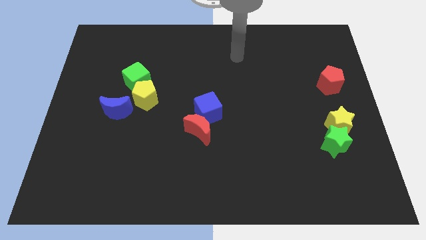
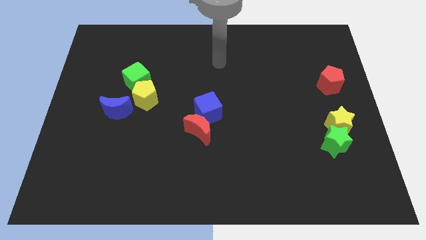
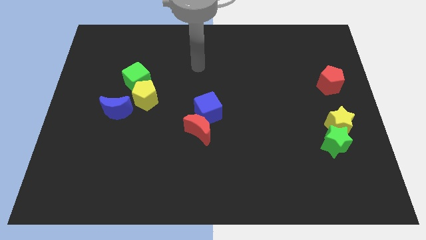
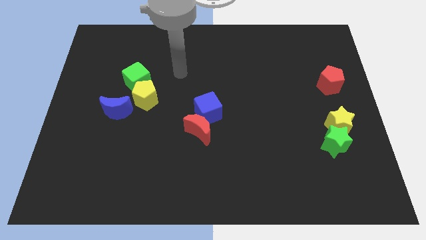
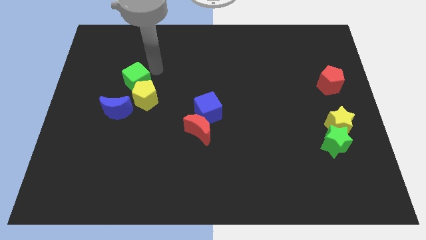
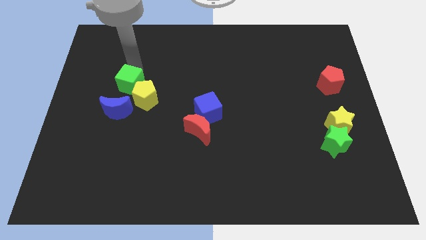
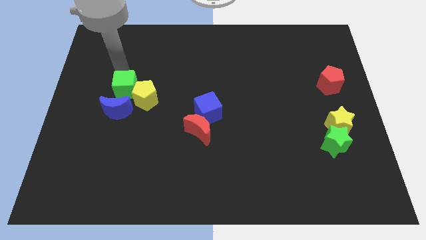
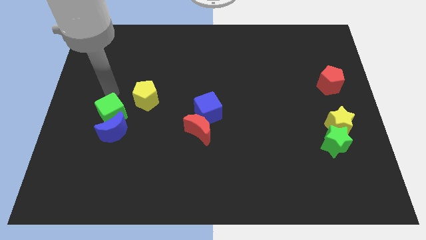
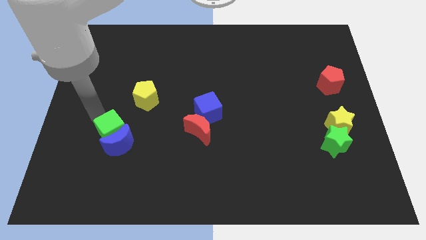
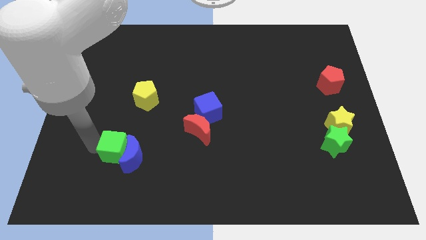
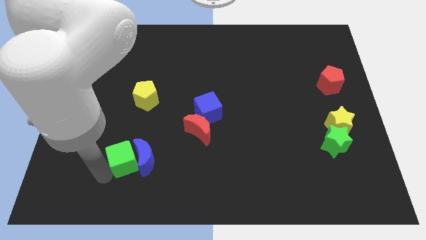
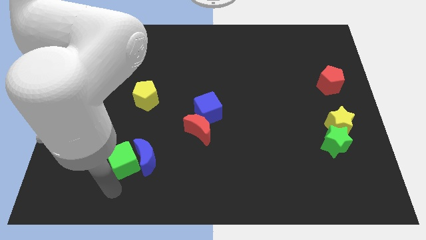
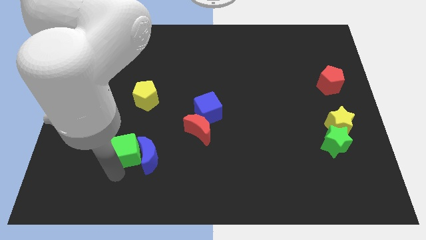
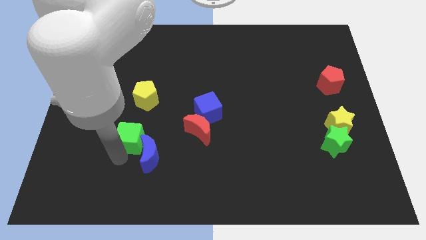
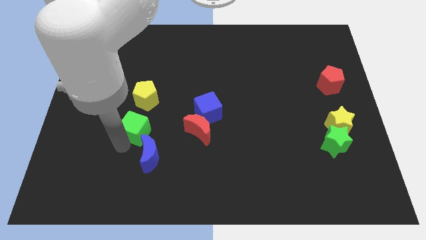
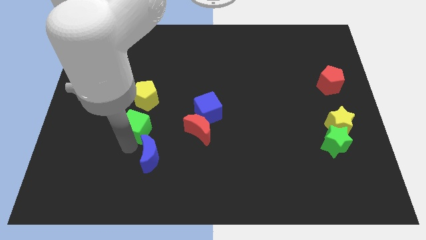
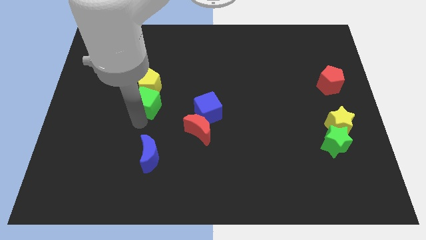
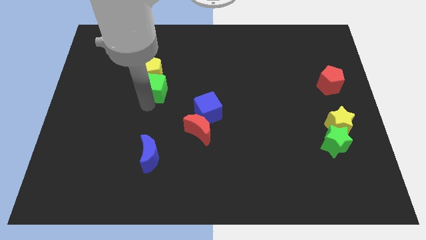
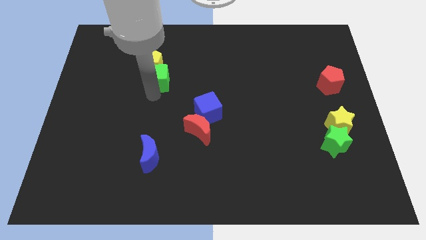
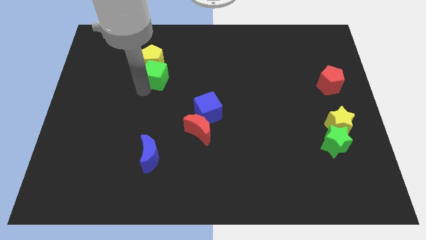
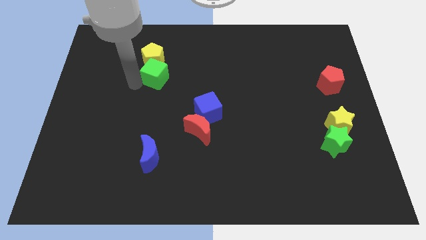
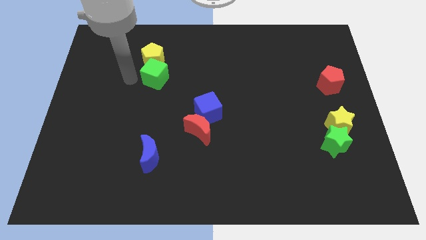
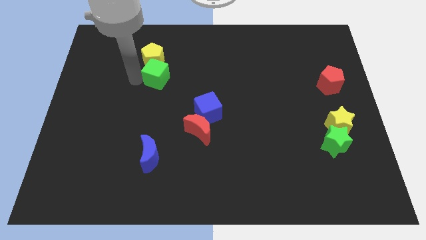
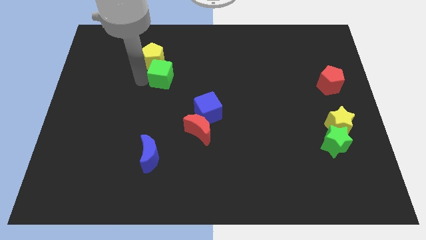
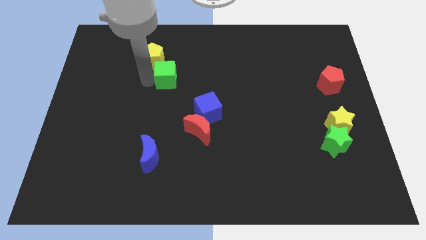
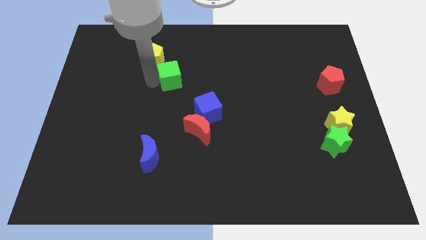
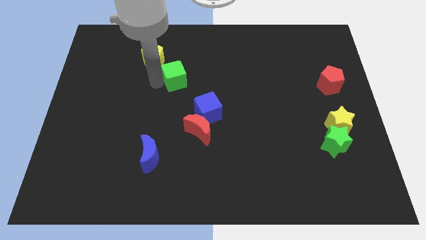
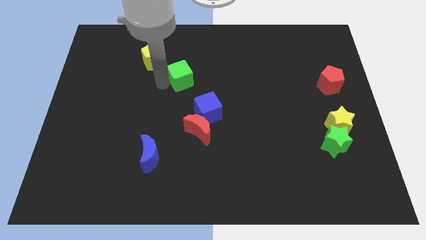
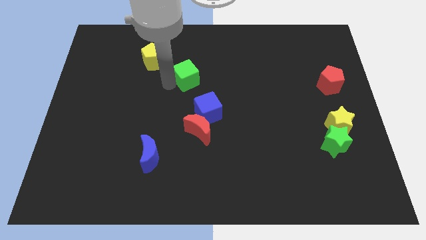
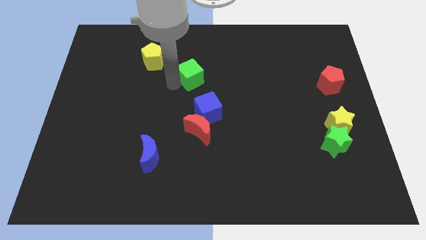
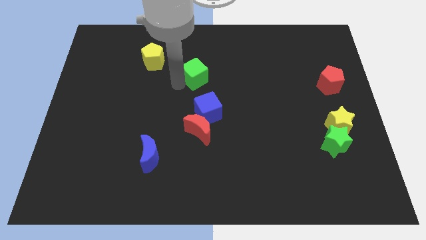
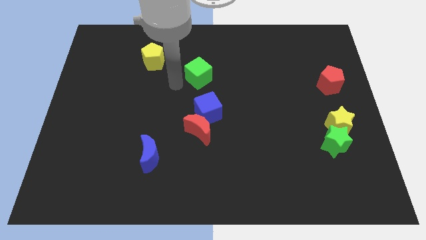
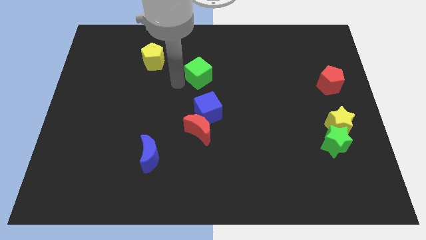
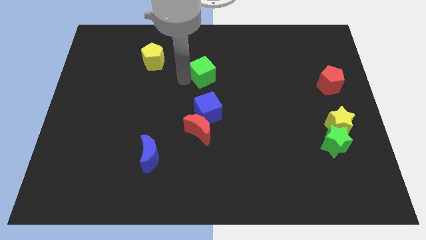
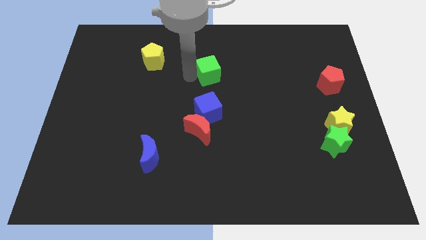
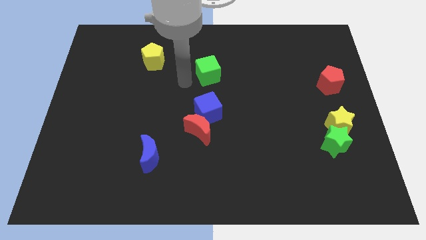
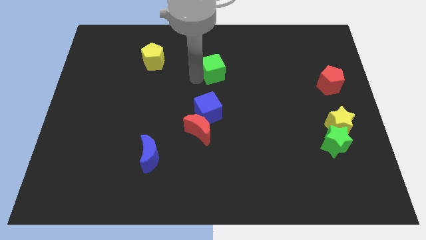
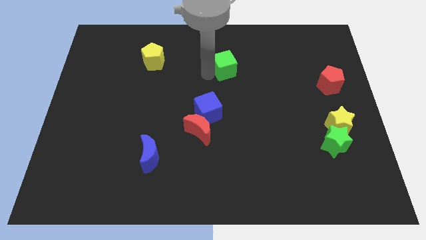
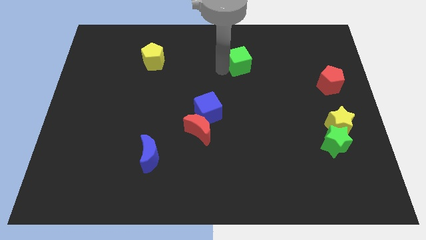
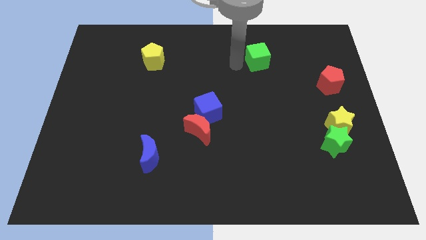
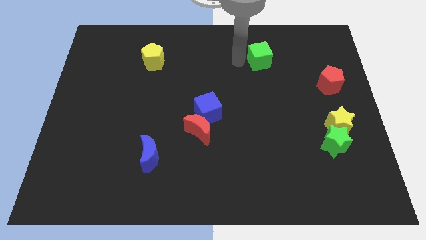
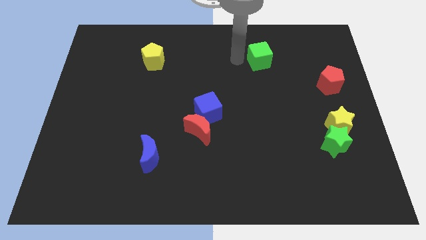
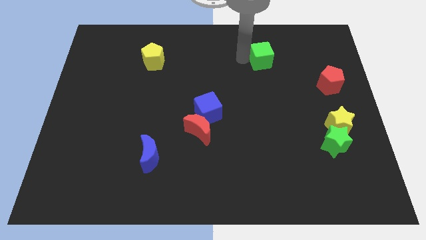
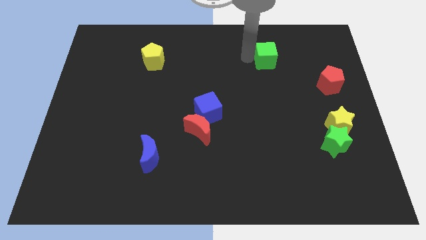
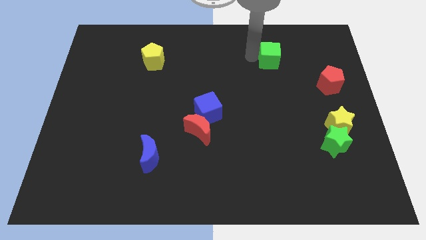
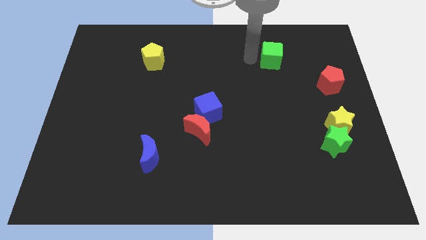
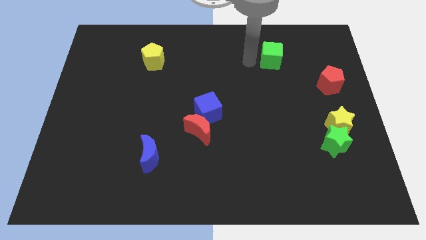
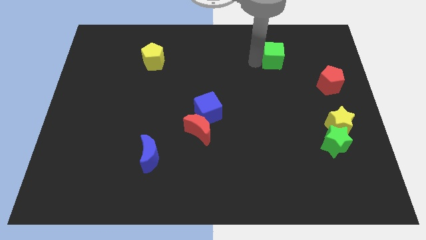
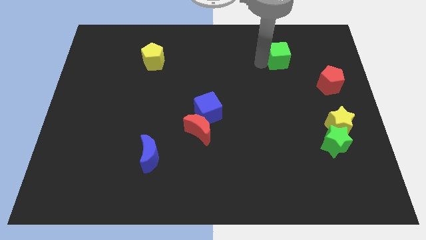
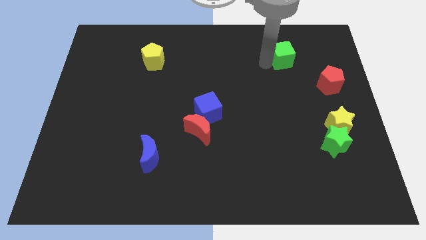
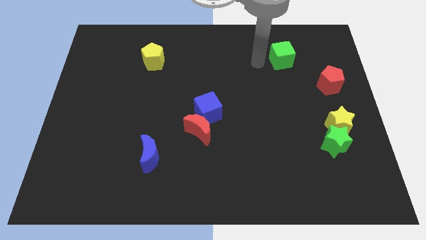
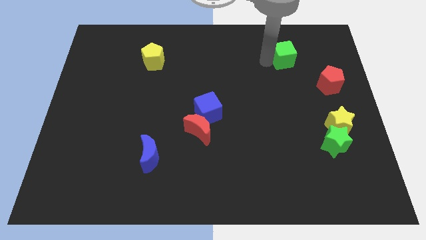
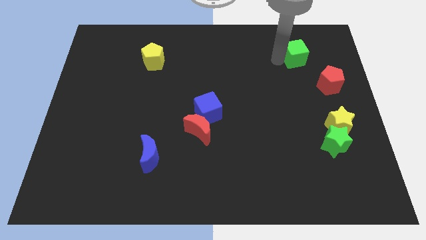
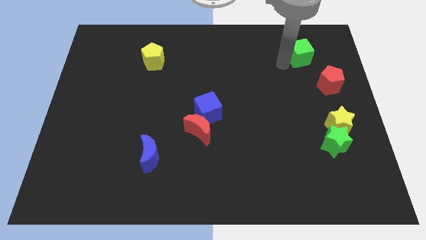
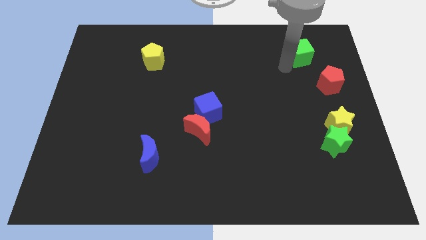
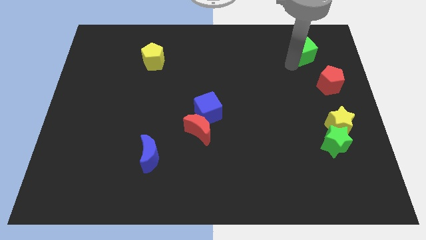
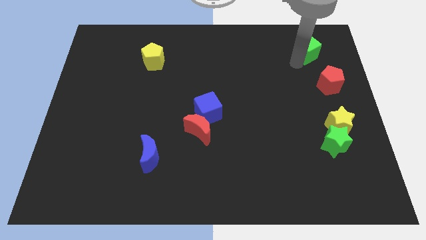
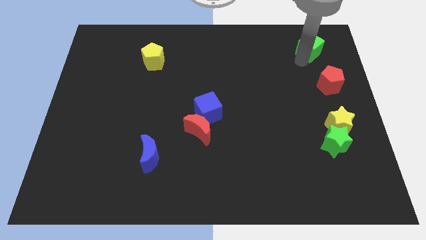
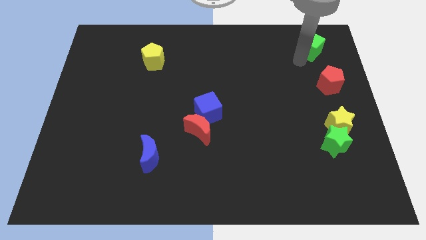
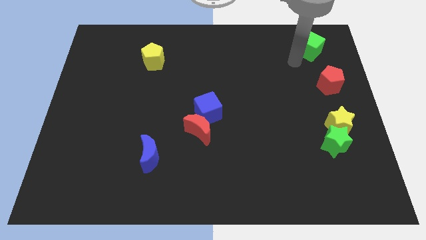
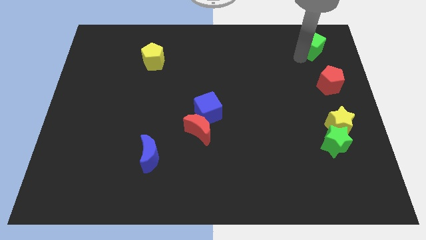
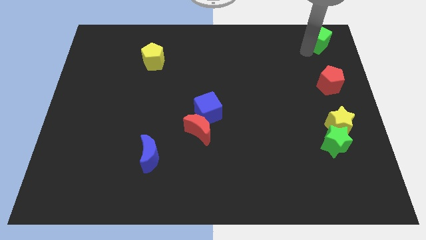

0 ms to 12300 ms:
push the green cube to the top right
